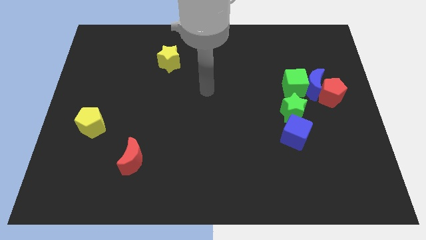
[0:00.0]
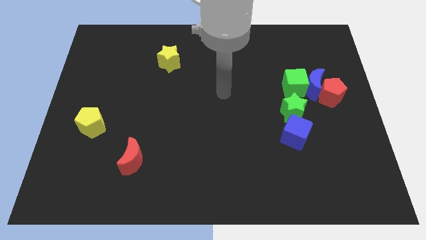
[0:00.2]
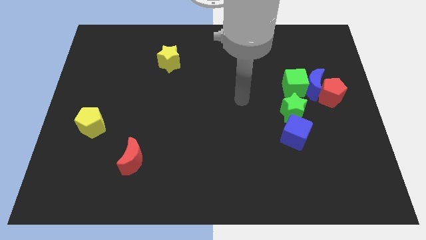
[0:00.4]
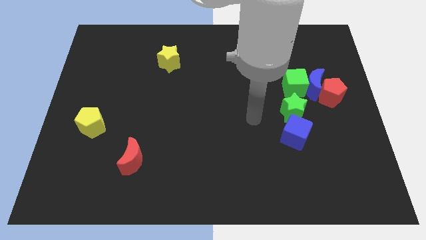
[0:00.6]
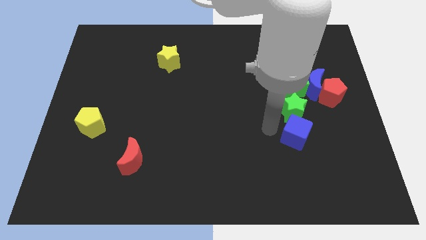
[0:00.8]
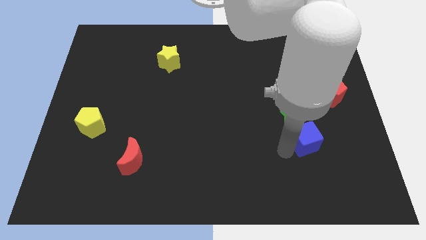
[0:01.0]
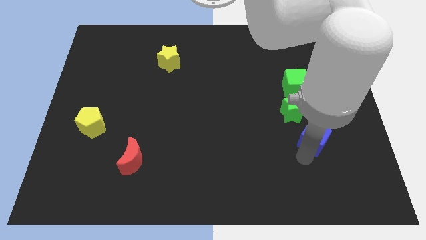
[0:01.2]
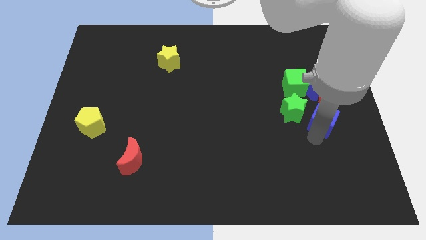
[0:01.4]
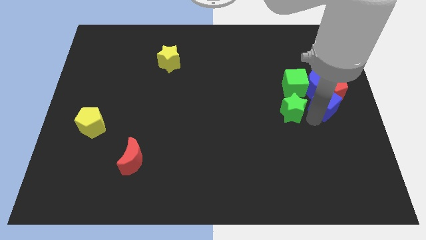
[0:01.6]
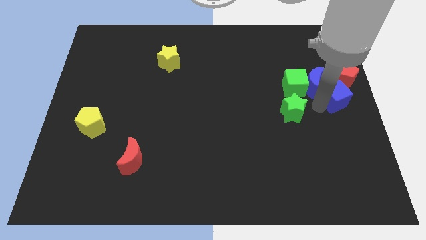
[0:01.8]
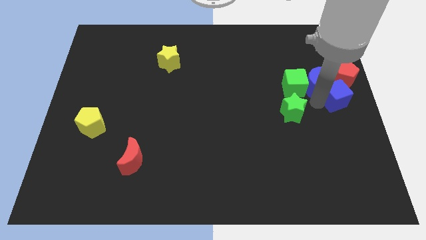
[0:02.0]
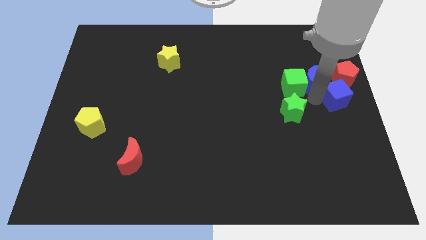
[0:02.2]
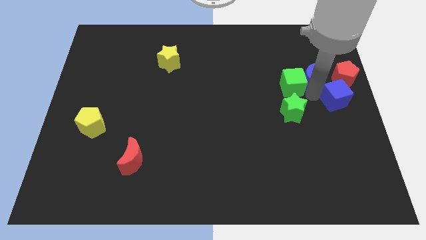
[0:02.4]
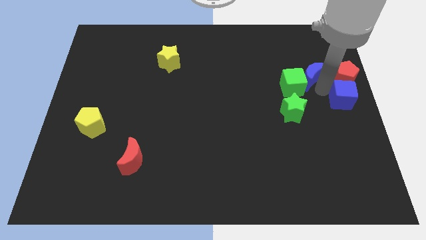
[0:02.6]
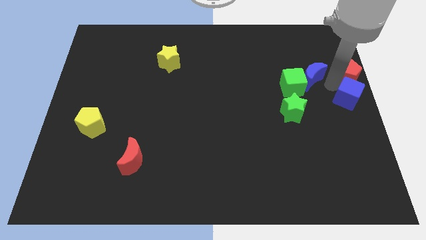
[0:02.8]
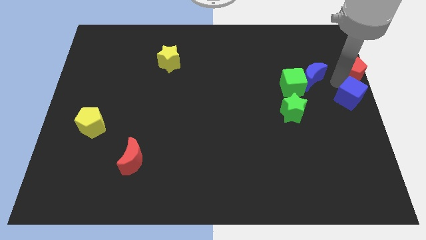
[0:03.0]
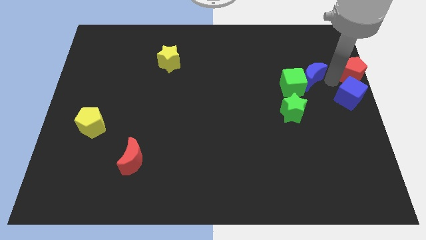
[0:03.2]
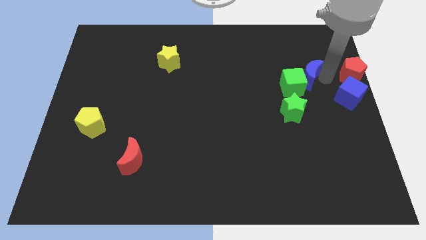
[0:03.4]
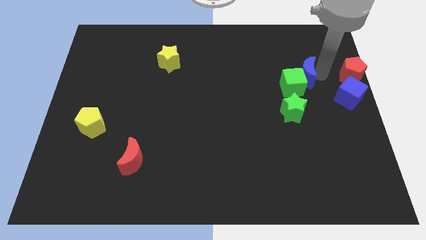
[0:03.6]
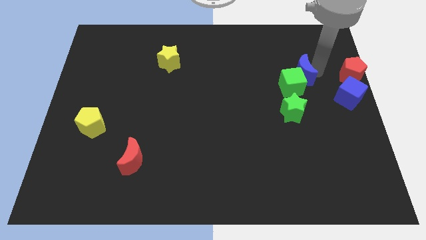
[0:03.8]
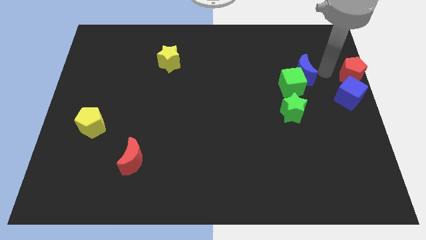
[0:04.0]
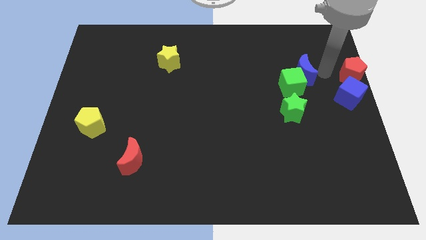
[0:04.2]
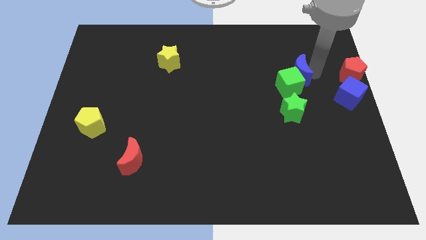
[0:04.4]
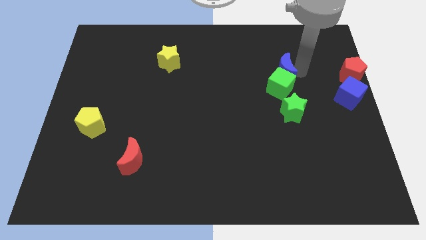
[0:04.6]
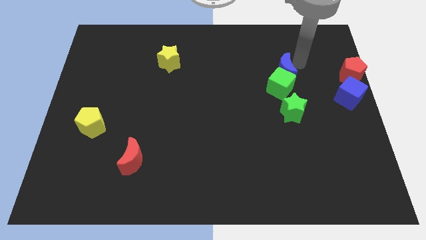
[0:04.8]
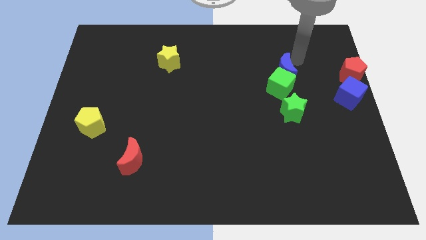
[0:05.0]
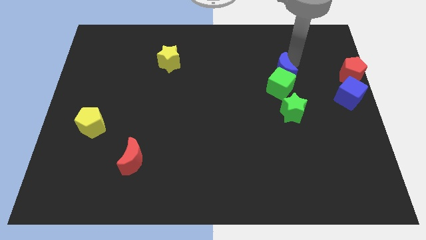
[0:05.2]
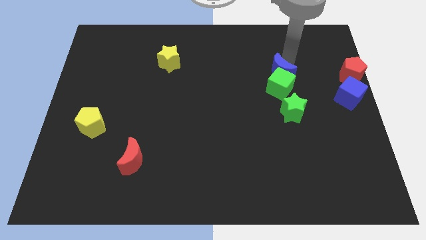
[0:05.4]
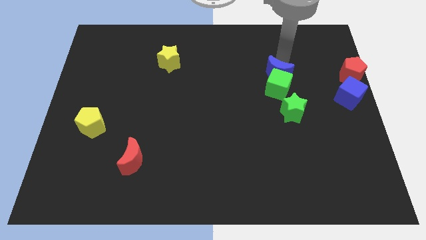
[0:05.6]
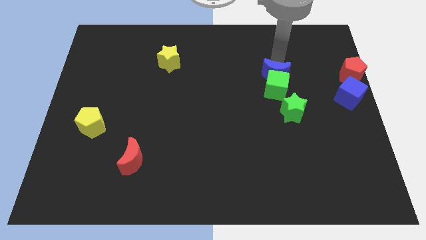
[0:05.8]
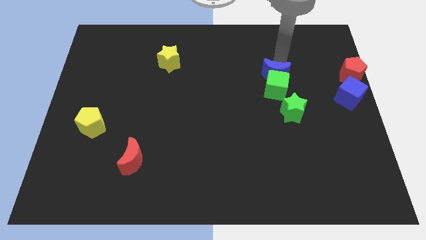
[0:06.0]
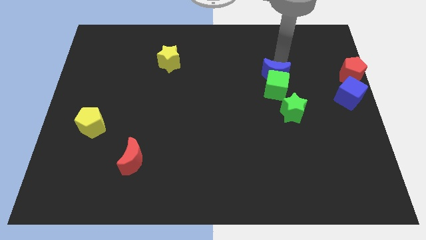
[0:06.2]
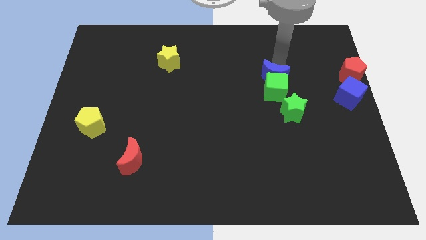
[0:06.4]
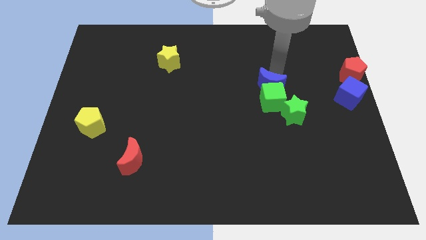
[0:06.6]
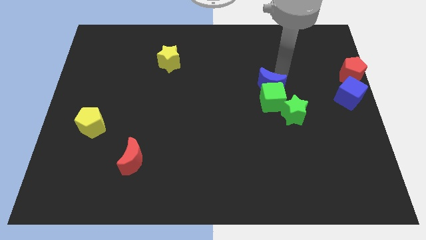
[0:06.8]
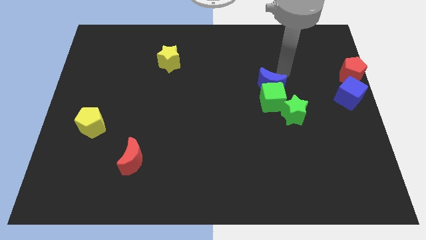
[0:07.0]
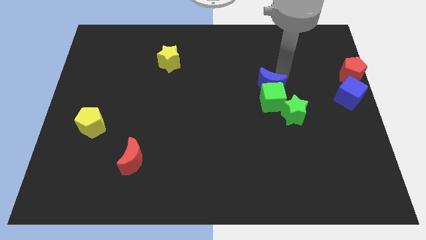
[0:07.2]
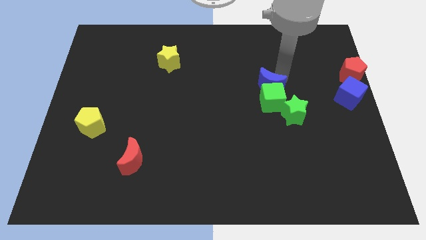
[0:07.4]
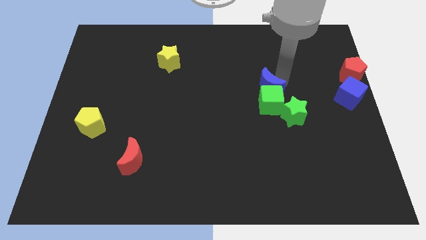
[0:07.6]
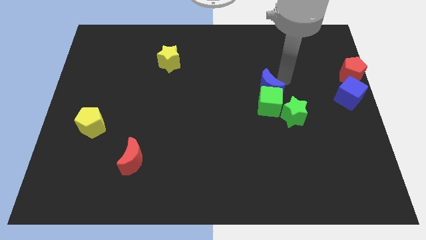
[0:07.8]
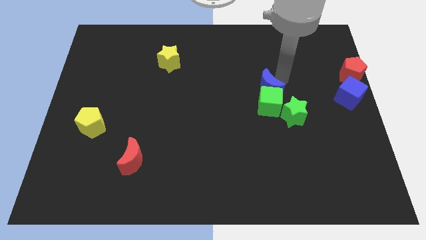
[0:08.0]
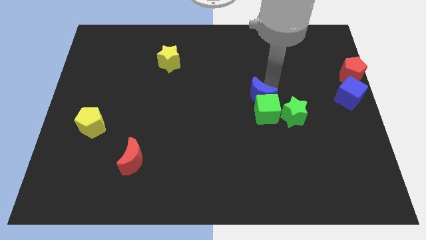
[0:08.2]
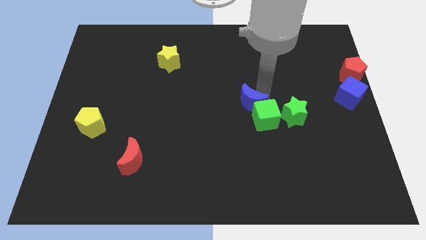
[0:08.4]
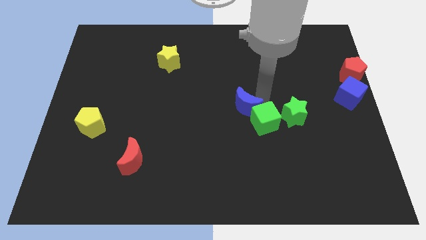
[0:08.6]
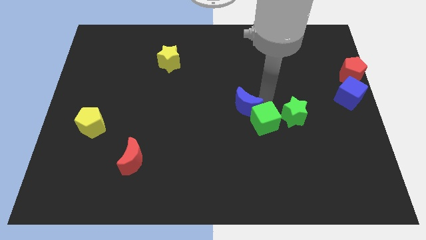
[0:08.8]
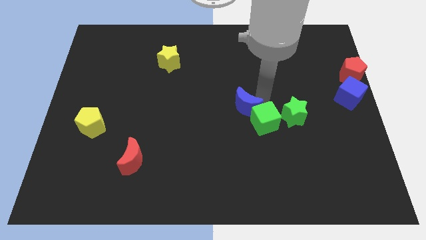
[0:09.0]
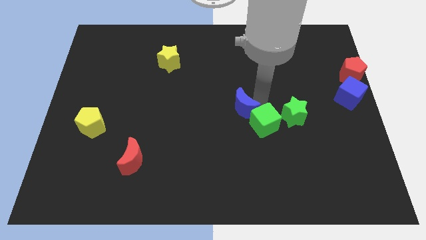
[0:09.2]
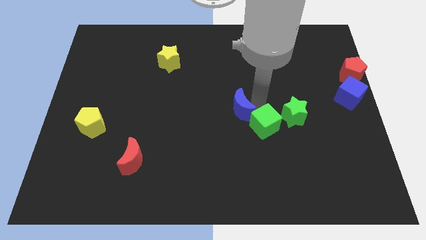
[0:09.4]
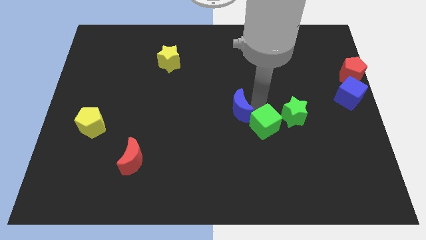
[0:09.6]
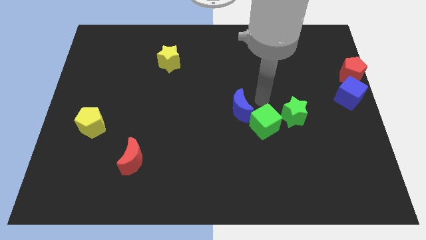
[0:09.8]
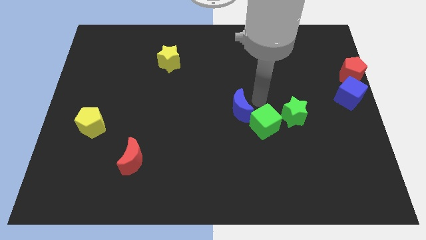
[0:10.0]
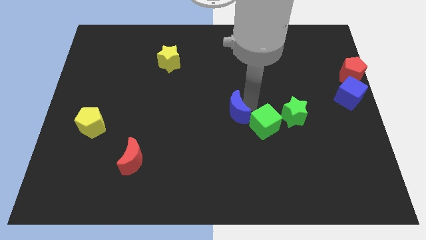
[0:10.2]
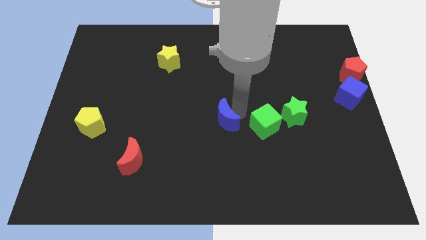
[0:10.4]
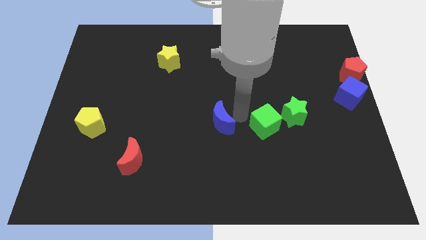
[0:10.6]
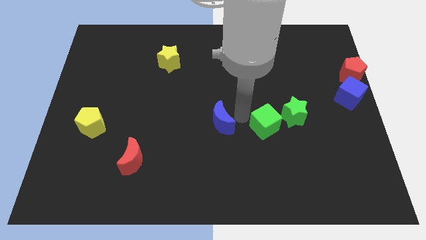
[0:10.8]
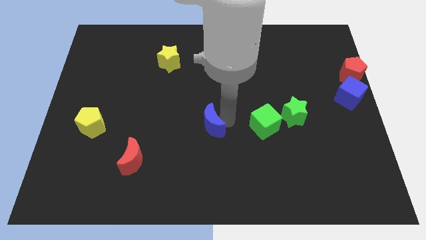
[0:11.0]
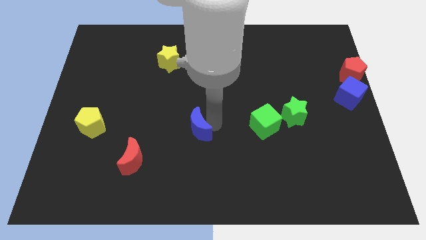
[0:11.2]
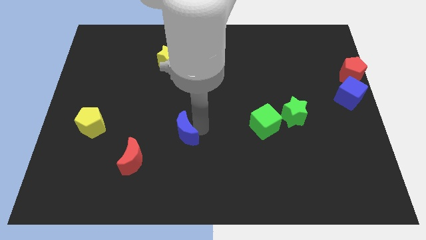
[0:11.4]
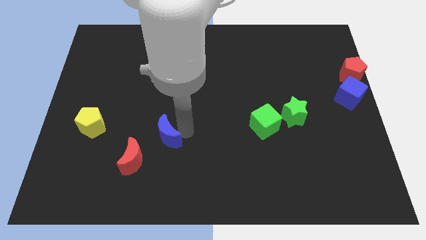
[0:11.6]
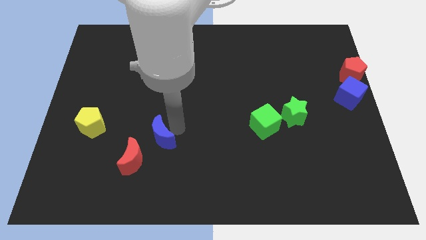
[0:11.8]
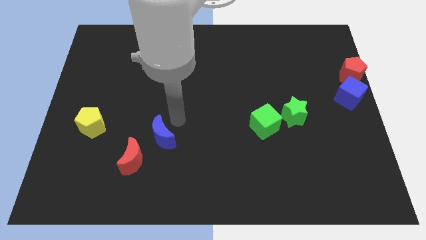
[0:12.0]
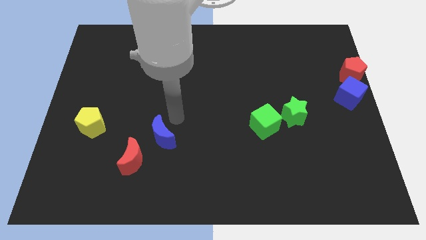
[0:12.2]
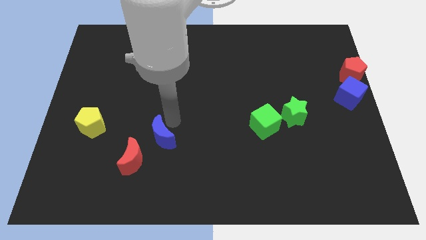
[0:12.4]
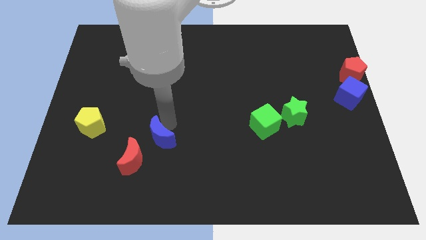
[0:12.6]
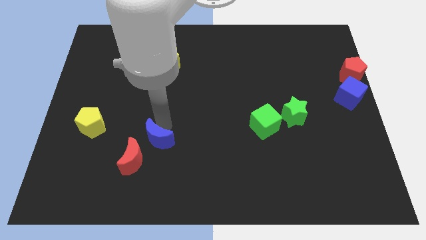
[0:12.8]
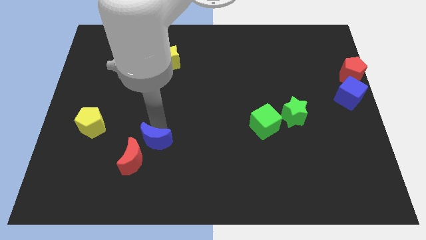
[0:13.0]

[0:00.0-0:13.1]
put the blue moon to the red moon

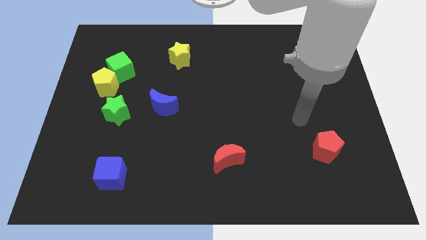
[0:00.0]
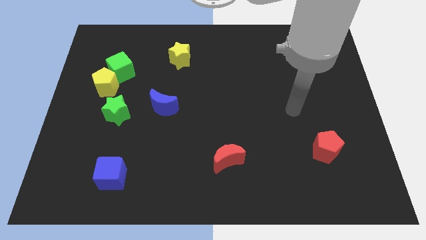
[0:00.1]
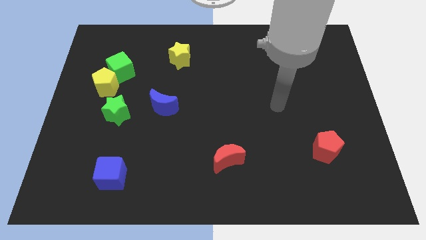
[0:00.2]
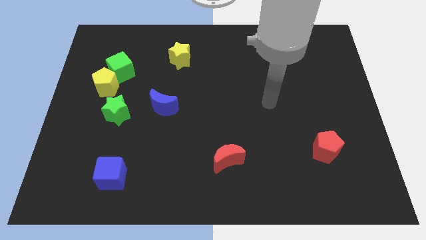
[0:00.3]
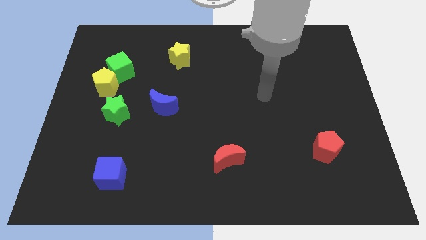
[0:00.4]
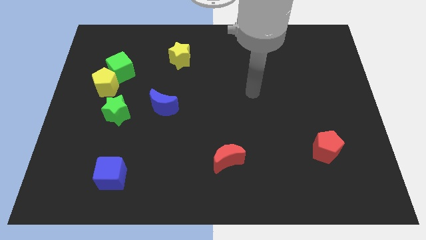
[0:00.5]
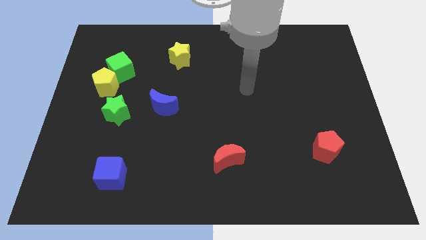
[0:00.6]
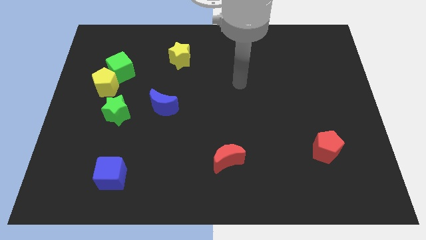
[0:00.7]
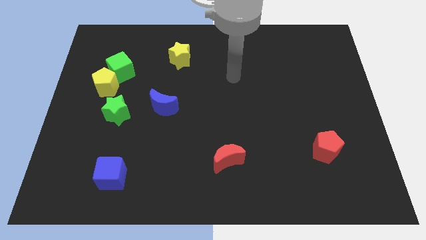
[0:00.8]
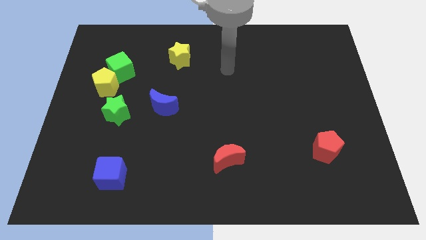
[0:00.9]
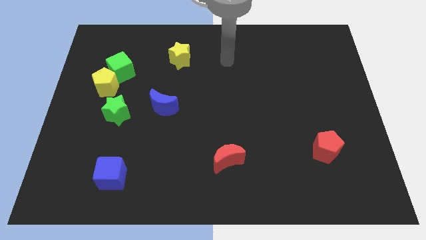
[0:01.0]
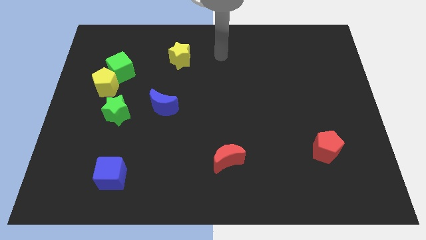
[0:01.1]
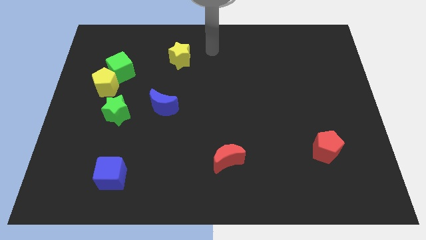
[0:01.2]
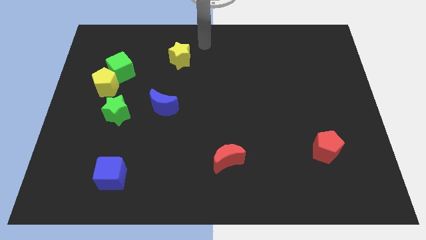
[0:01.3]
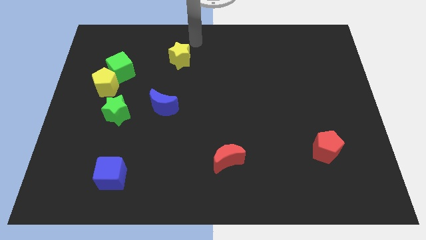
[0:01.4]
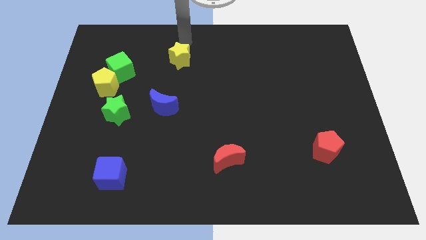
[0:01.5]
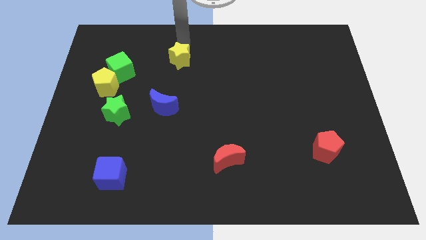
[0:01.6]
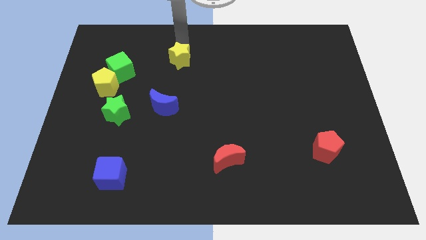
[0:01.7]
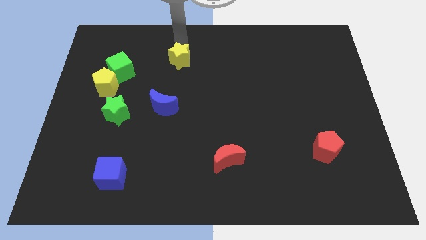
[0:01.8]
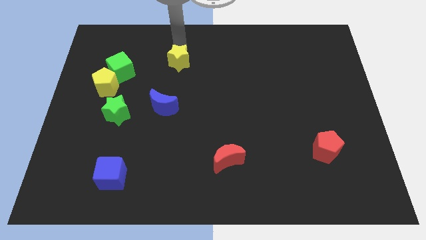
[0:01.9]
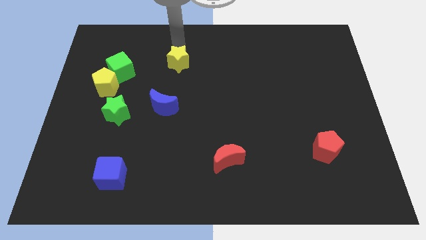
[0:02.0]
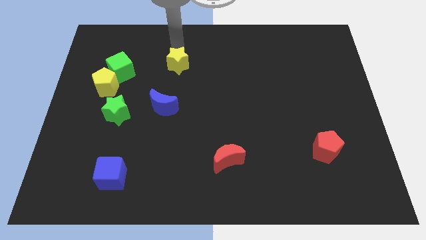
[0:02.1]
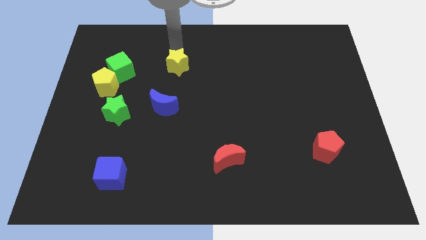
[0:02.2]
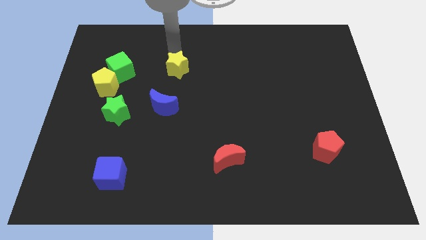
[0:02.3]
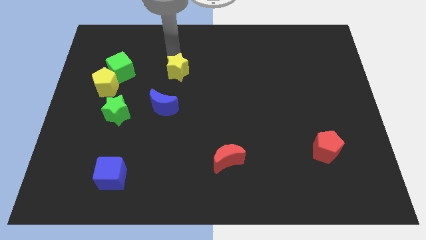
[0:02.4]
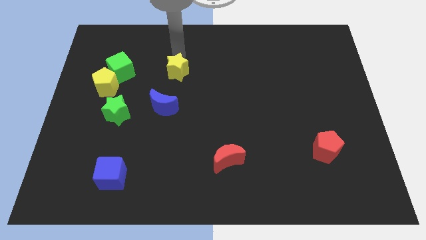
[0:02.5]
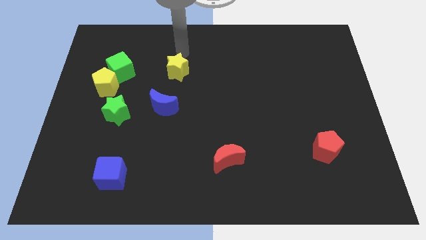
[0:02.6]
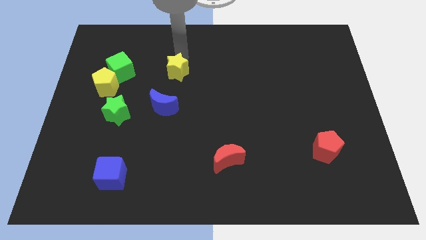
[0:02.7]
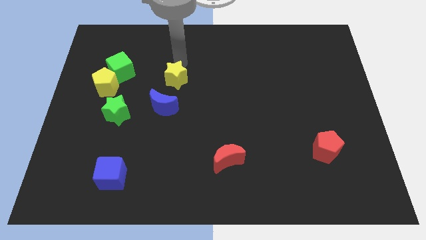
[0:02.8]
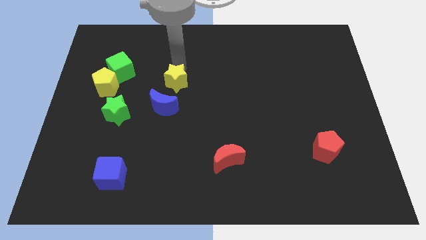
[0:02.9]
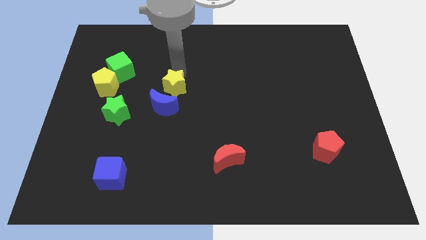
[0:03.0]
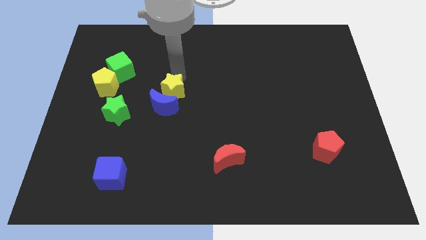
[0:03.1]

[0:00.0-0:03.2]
move the yellow star to the blue moon
